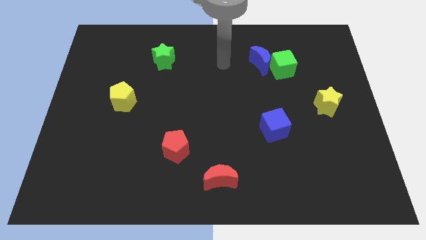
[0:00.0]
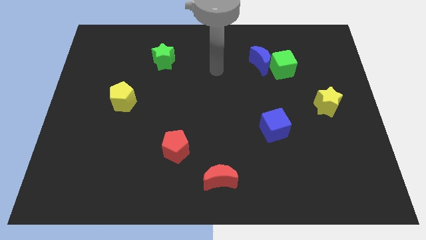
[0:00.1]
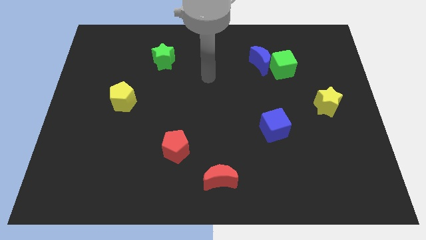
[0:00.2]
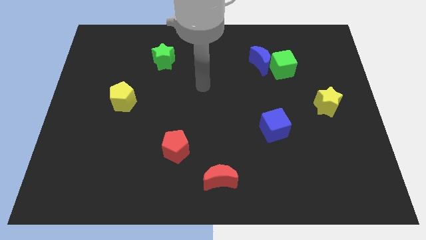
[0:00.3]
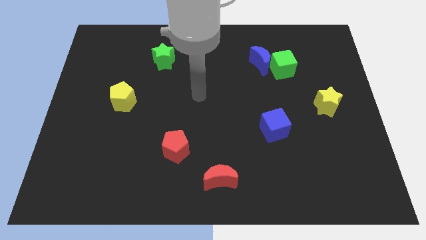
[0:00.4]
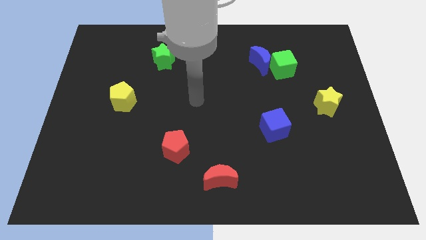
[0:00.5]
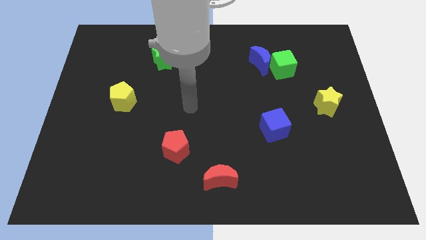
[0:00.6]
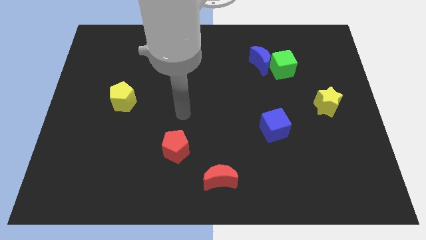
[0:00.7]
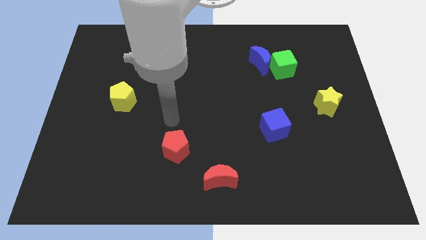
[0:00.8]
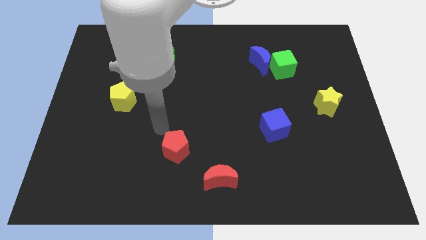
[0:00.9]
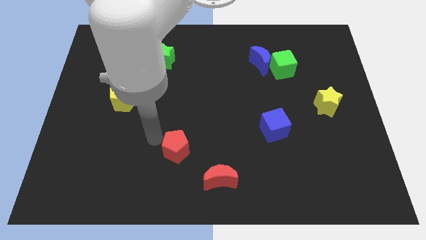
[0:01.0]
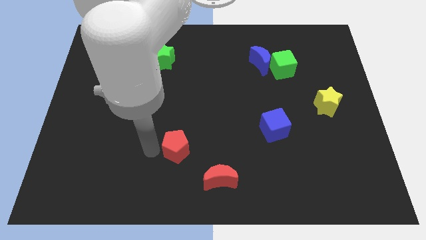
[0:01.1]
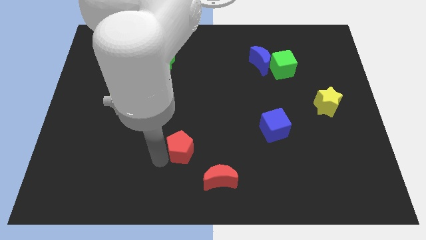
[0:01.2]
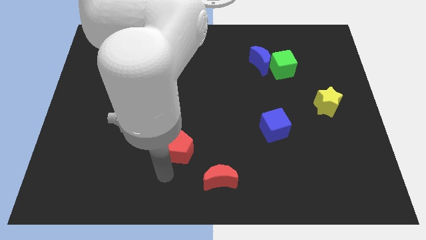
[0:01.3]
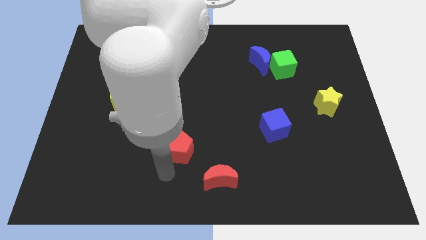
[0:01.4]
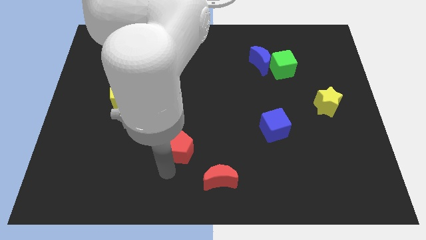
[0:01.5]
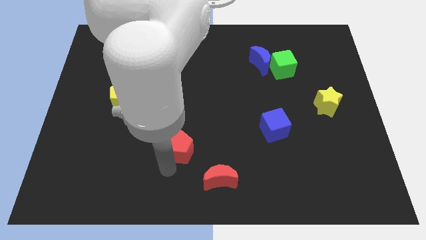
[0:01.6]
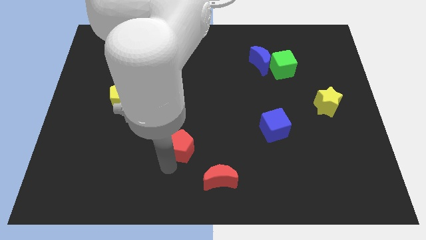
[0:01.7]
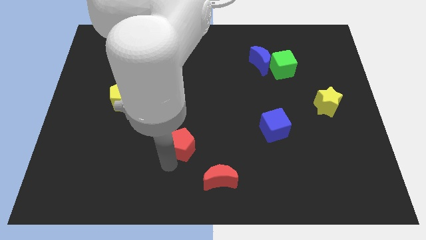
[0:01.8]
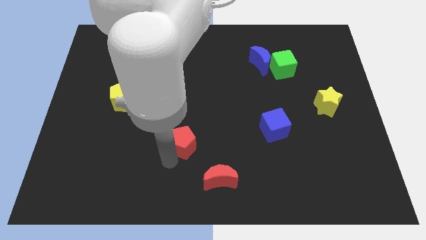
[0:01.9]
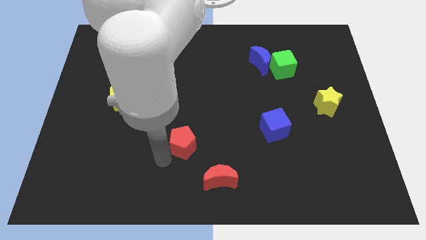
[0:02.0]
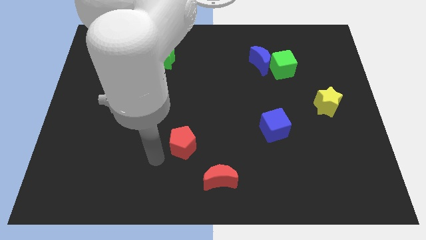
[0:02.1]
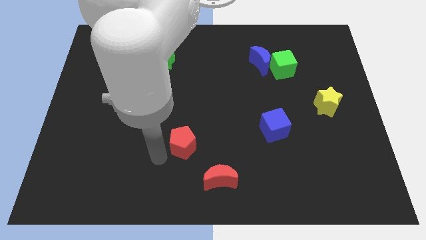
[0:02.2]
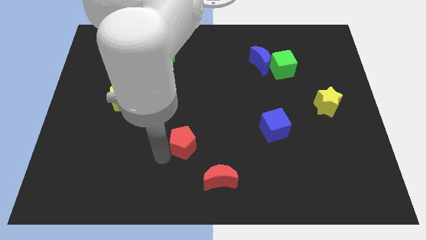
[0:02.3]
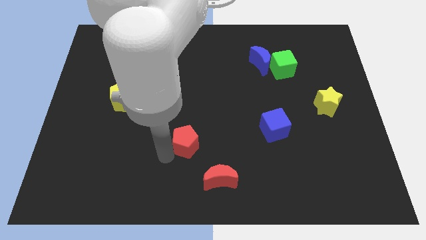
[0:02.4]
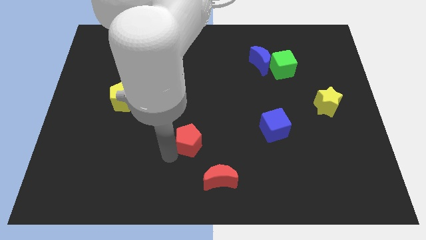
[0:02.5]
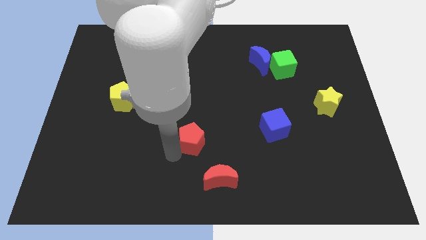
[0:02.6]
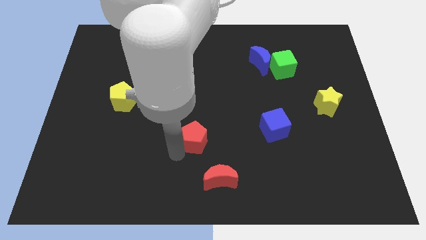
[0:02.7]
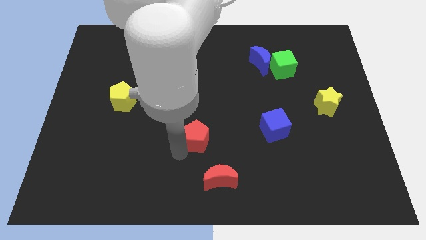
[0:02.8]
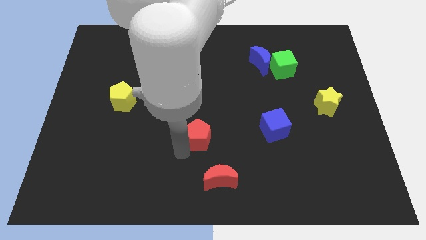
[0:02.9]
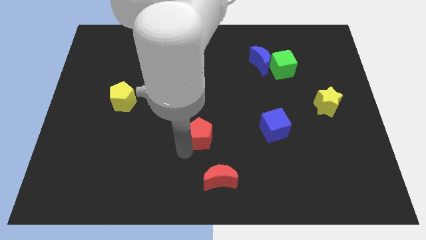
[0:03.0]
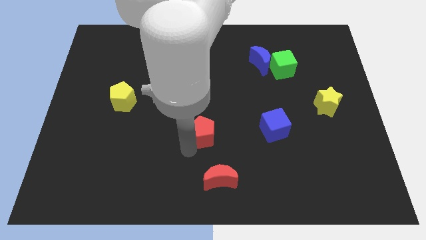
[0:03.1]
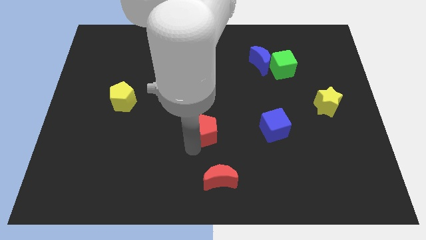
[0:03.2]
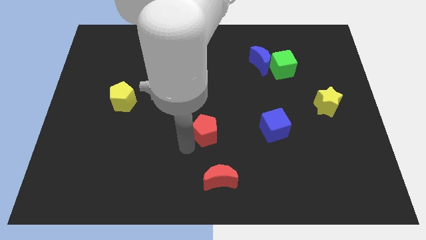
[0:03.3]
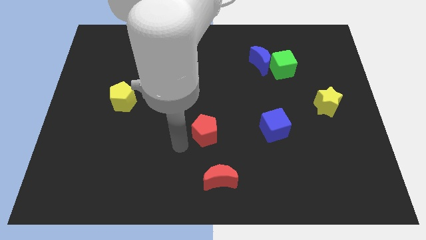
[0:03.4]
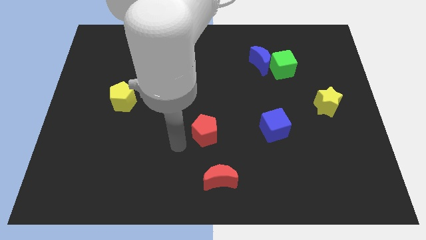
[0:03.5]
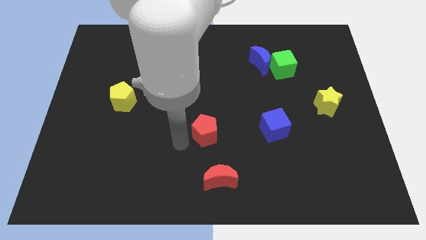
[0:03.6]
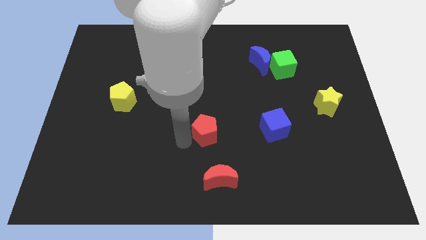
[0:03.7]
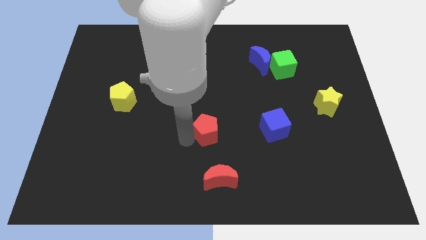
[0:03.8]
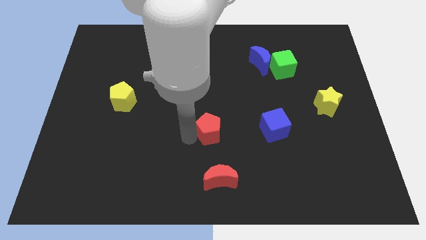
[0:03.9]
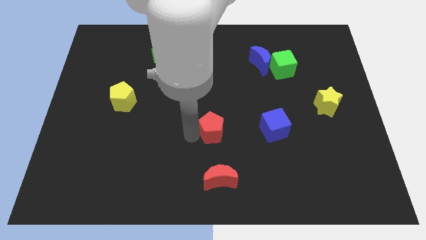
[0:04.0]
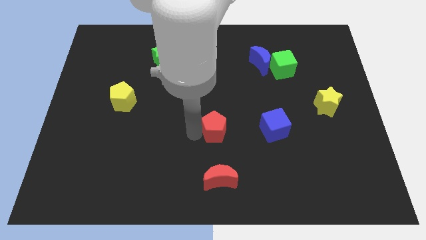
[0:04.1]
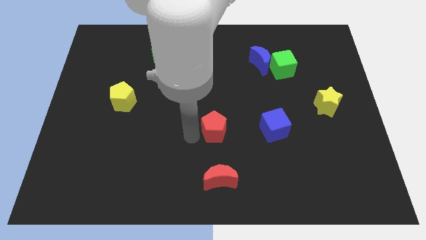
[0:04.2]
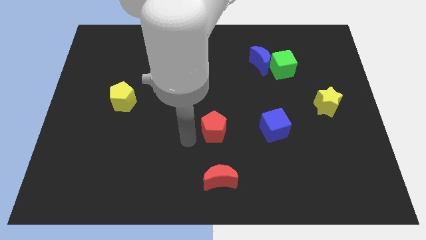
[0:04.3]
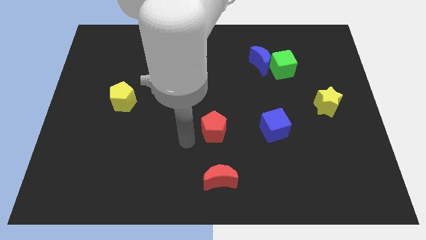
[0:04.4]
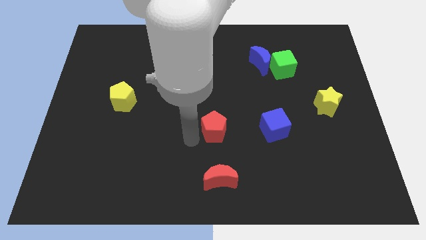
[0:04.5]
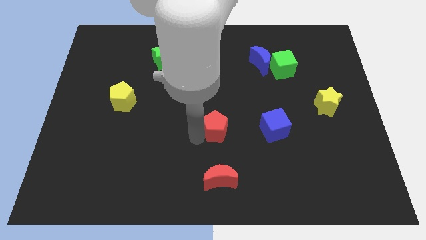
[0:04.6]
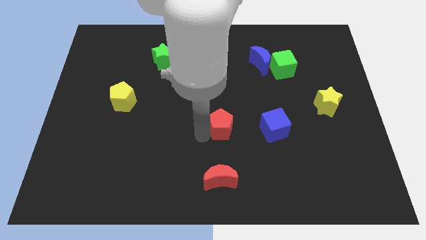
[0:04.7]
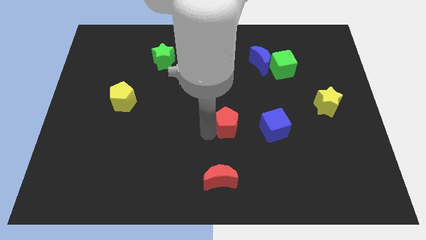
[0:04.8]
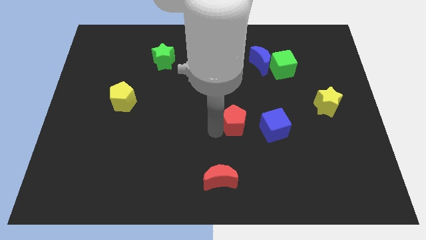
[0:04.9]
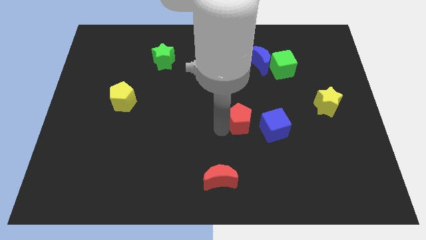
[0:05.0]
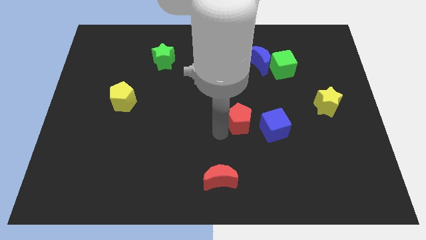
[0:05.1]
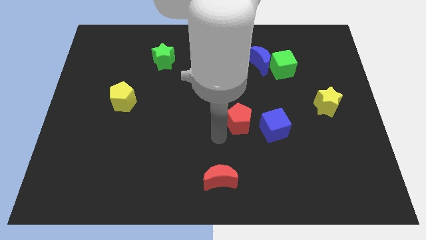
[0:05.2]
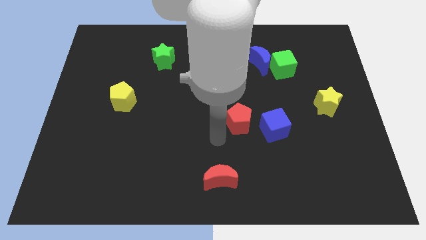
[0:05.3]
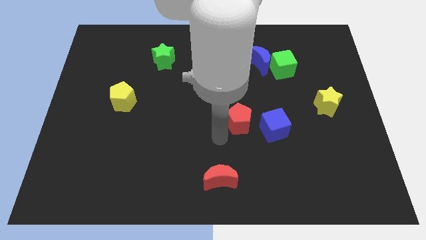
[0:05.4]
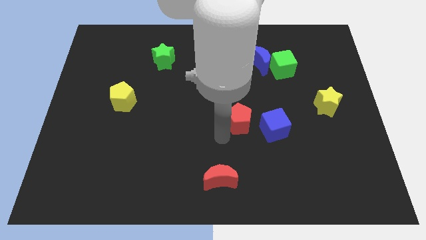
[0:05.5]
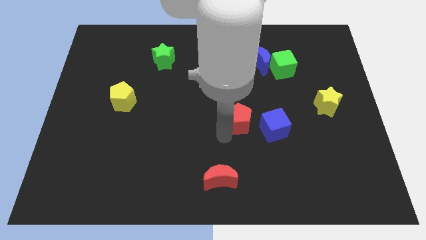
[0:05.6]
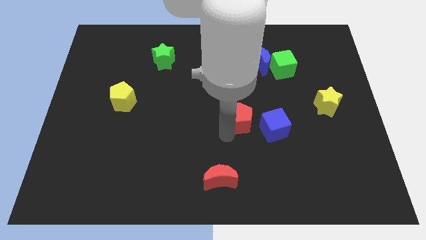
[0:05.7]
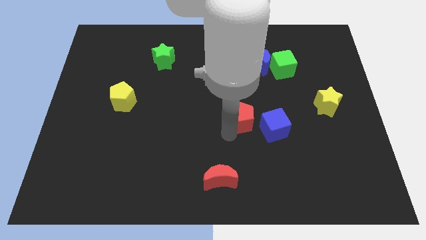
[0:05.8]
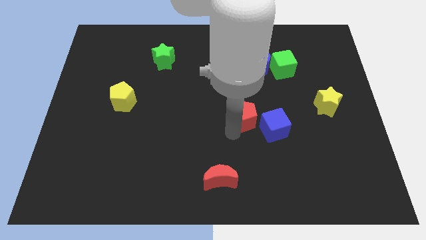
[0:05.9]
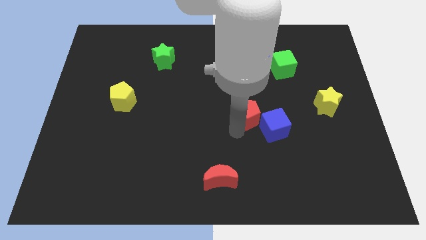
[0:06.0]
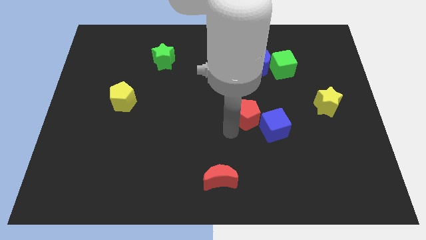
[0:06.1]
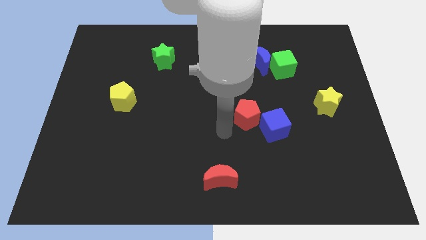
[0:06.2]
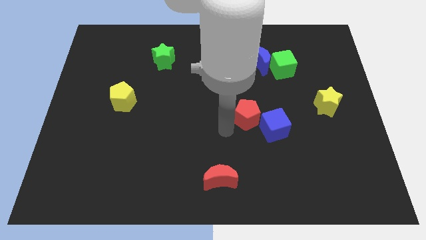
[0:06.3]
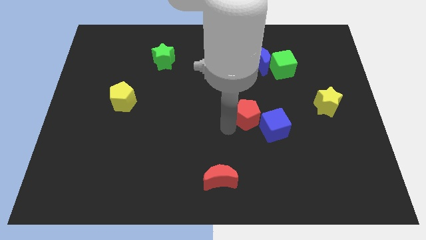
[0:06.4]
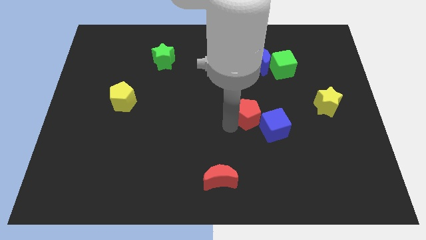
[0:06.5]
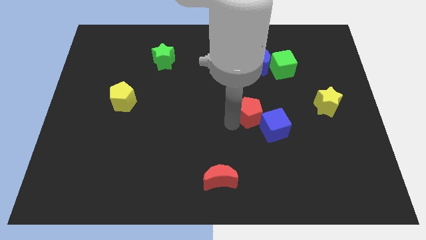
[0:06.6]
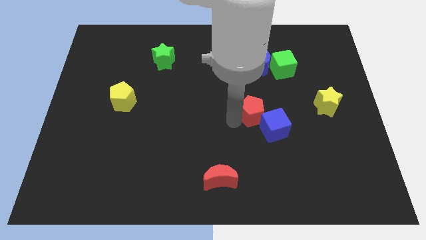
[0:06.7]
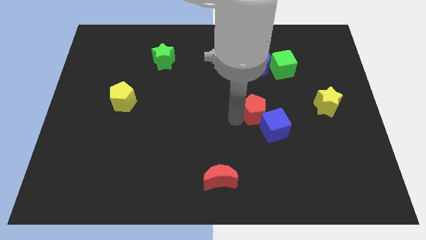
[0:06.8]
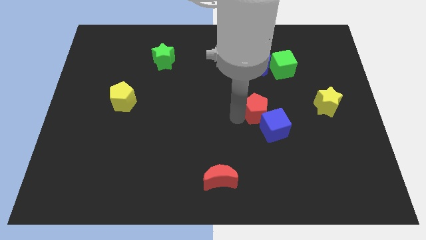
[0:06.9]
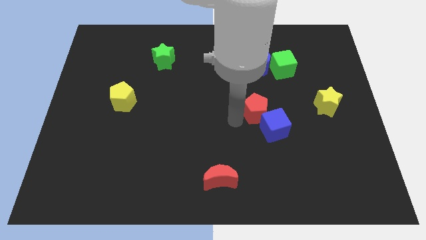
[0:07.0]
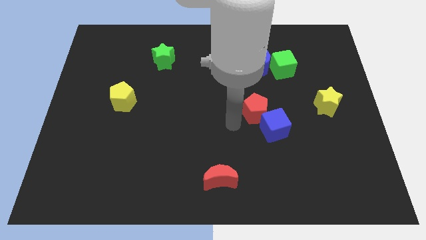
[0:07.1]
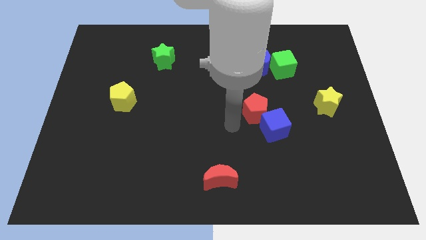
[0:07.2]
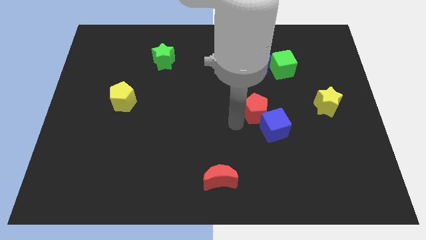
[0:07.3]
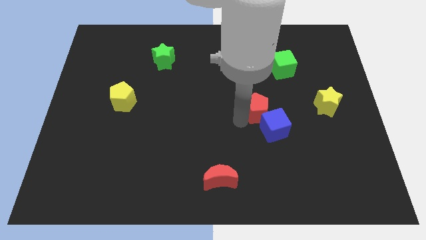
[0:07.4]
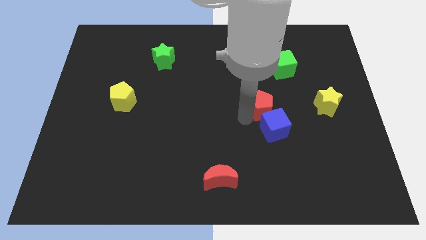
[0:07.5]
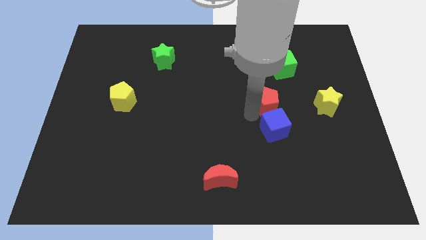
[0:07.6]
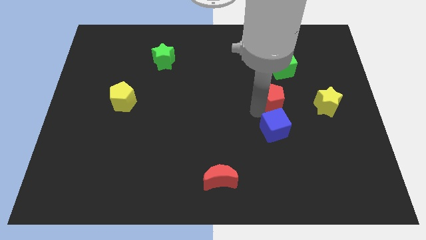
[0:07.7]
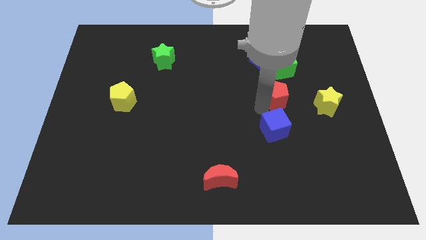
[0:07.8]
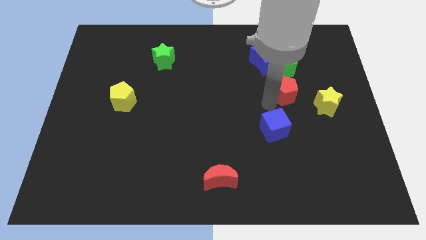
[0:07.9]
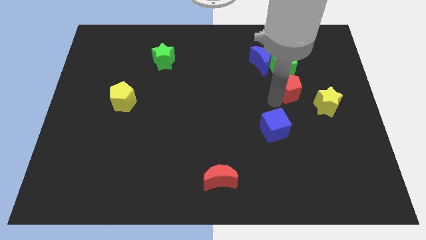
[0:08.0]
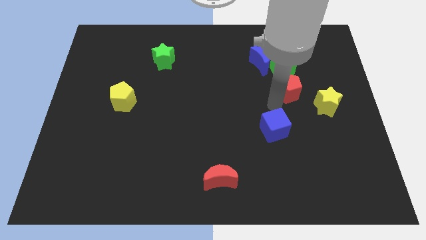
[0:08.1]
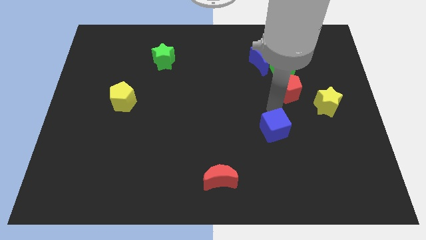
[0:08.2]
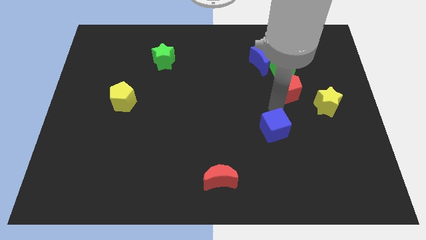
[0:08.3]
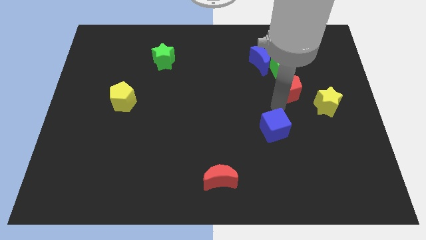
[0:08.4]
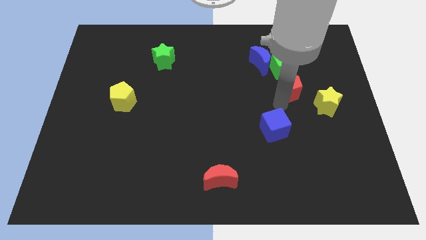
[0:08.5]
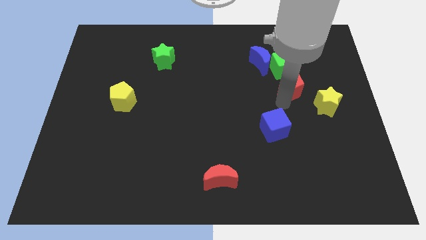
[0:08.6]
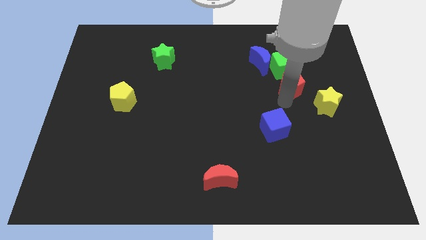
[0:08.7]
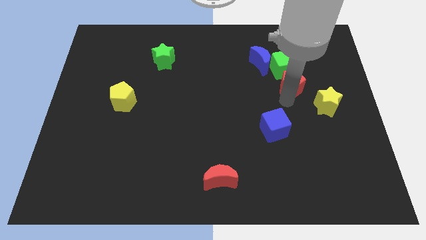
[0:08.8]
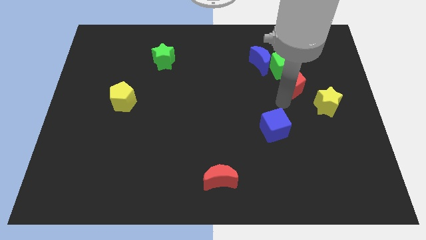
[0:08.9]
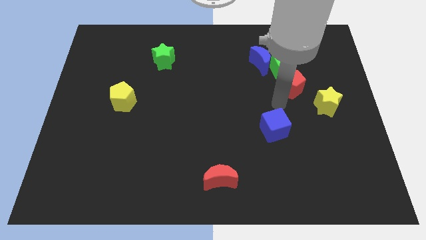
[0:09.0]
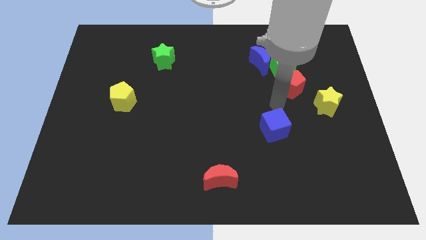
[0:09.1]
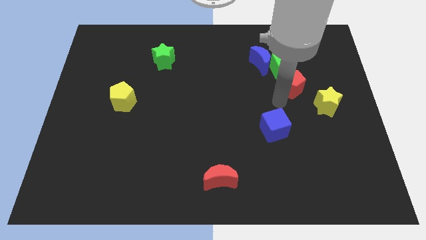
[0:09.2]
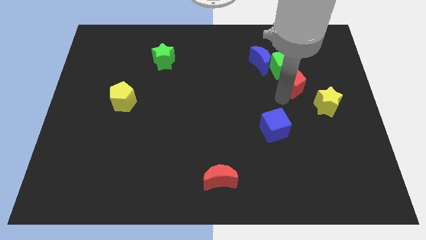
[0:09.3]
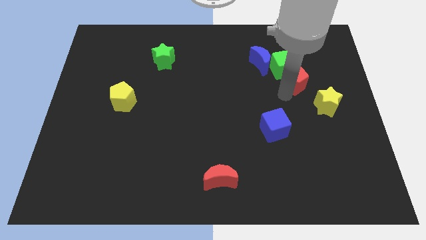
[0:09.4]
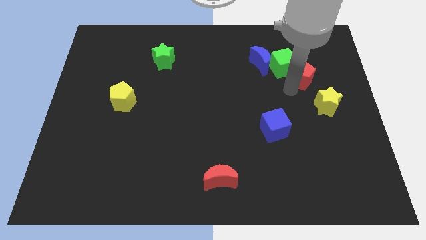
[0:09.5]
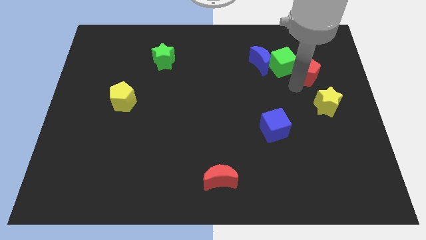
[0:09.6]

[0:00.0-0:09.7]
move the red pentagon right of the blue moon
